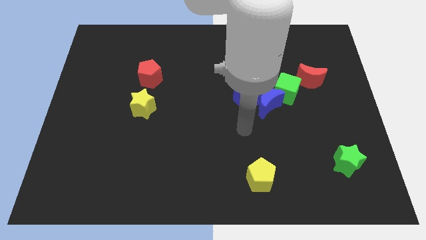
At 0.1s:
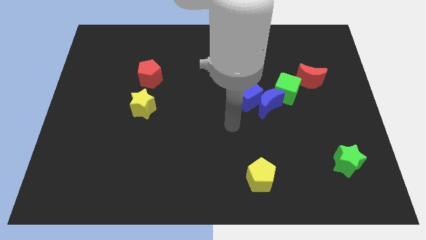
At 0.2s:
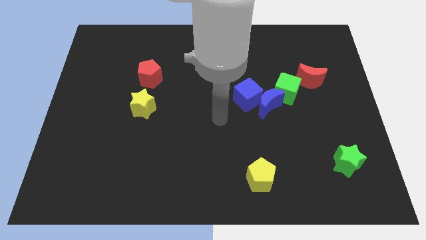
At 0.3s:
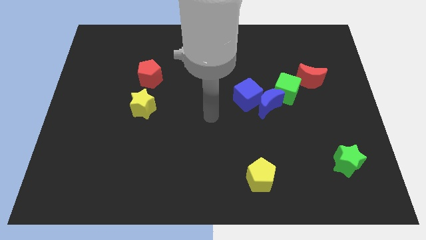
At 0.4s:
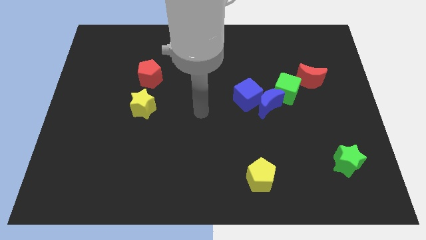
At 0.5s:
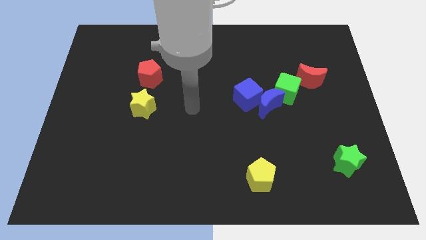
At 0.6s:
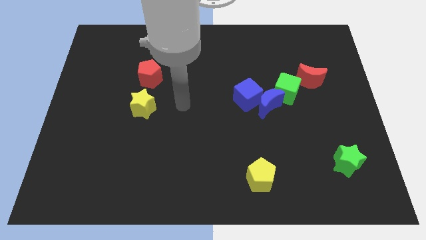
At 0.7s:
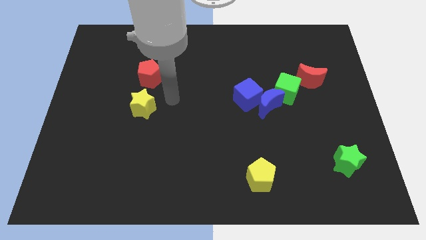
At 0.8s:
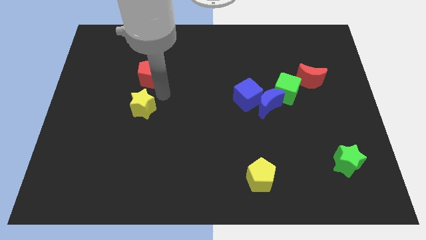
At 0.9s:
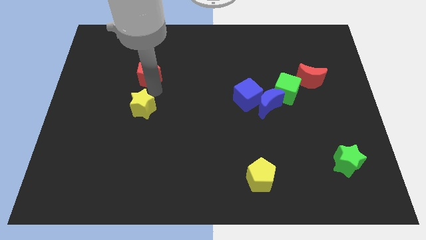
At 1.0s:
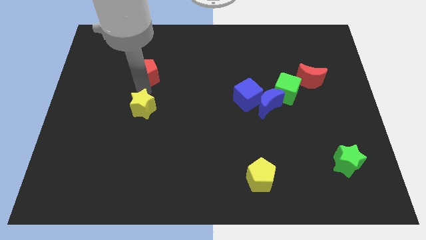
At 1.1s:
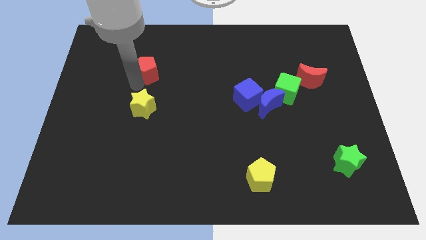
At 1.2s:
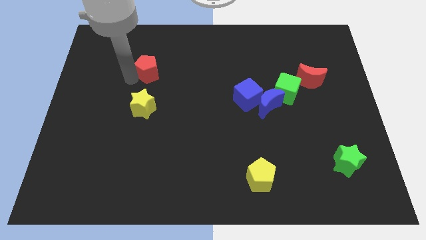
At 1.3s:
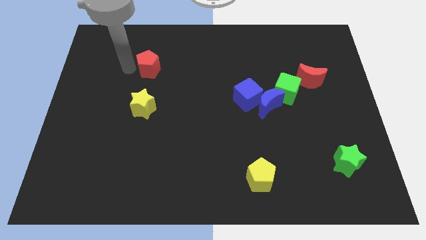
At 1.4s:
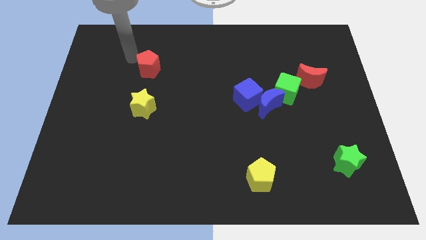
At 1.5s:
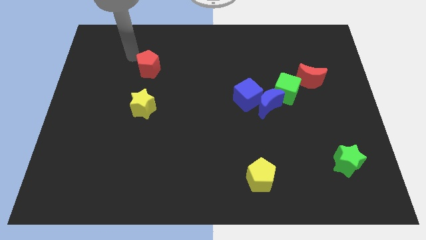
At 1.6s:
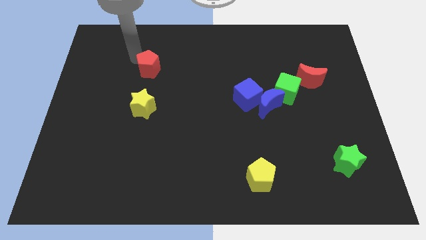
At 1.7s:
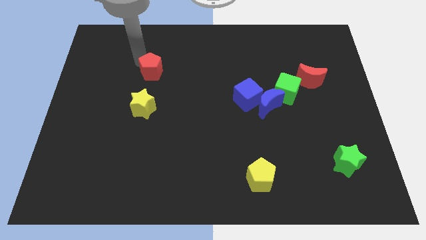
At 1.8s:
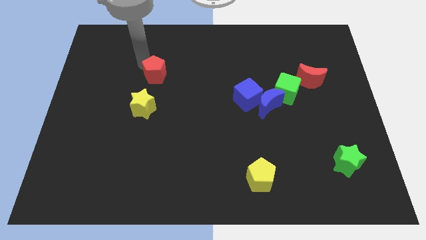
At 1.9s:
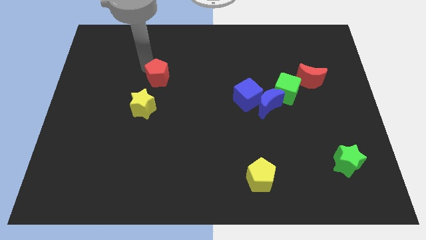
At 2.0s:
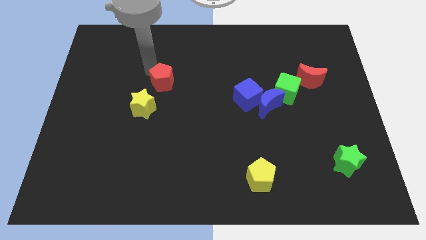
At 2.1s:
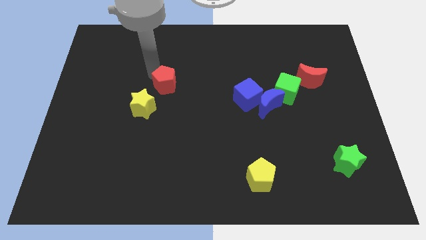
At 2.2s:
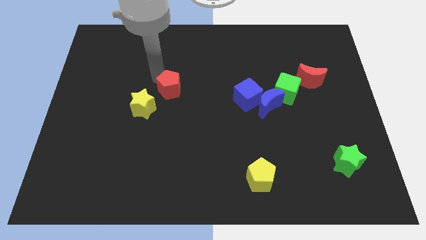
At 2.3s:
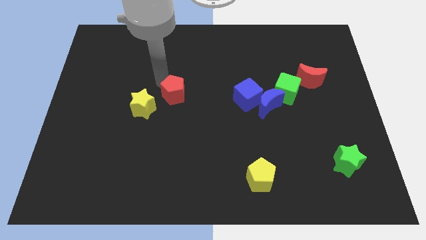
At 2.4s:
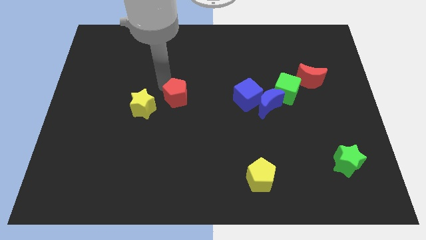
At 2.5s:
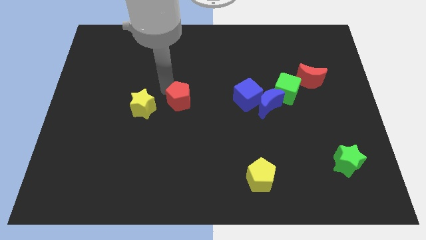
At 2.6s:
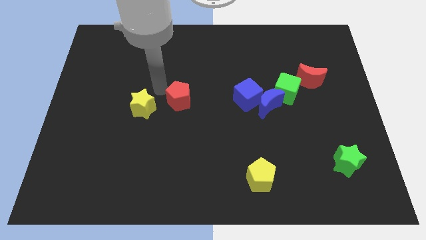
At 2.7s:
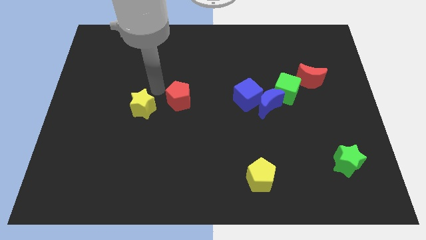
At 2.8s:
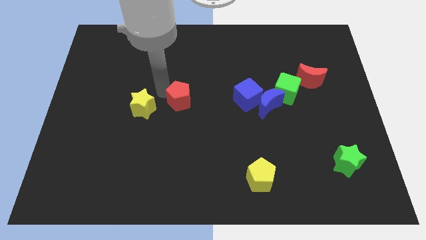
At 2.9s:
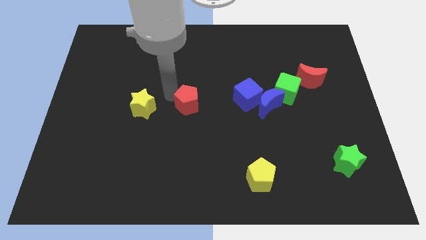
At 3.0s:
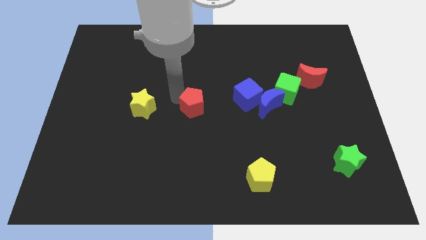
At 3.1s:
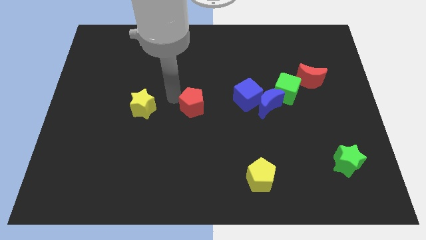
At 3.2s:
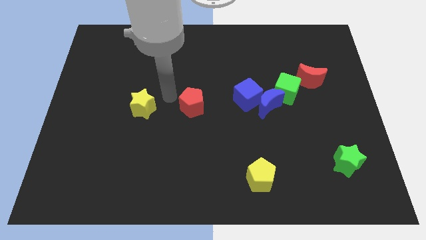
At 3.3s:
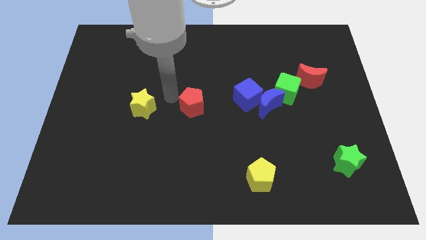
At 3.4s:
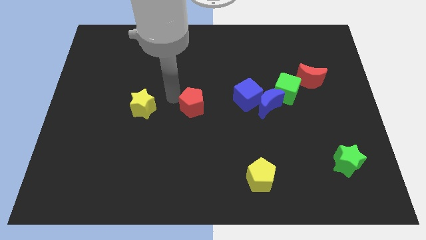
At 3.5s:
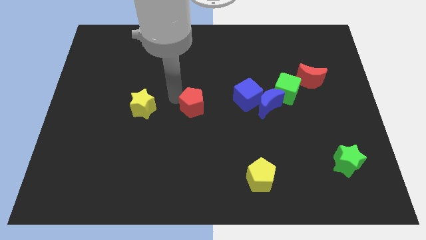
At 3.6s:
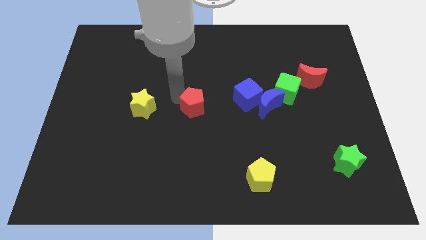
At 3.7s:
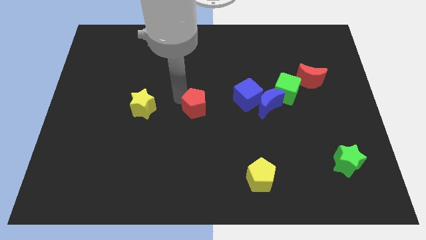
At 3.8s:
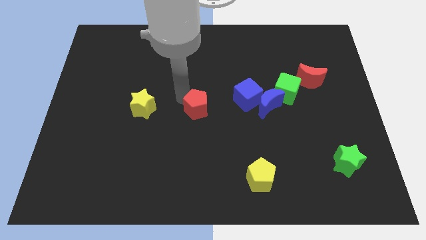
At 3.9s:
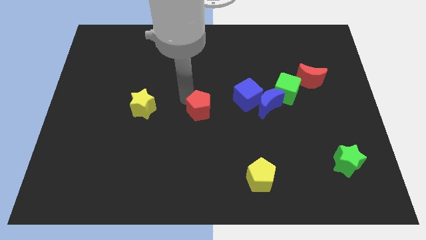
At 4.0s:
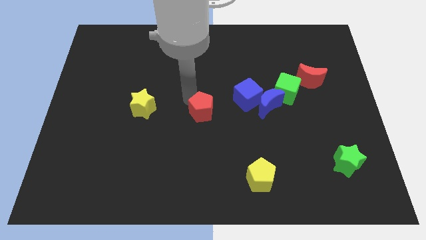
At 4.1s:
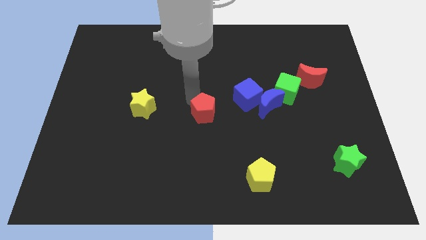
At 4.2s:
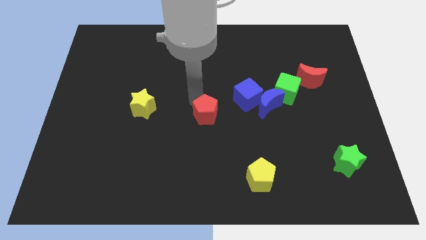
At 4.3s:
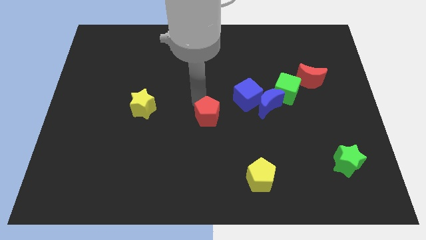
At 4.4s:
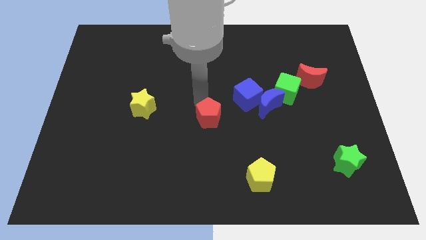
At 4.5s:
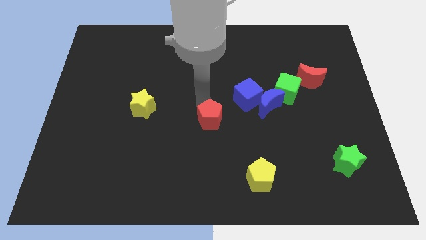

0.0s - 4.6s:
slide the red pentagon downwards and to the right diagonally

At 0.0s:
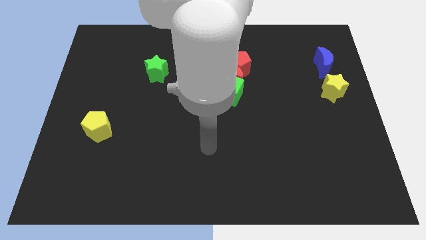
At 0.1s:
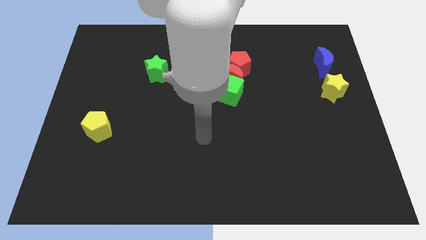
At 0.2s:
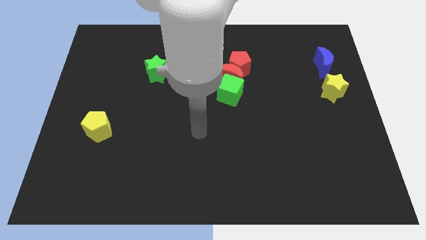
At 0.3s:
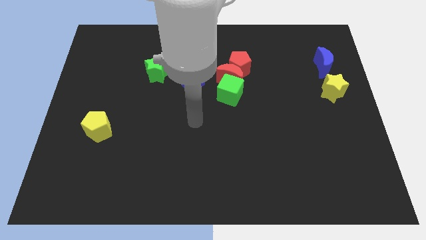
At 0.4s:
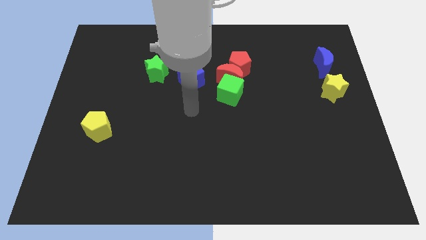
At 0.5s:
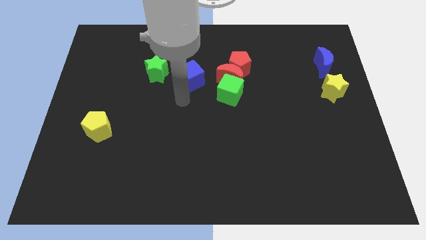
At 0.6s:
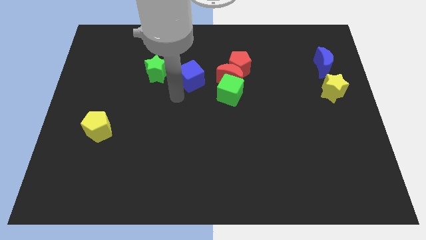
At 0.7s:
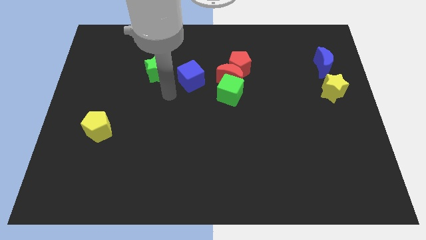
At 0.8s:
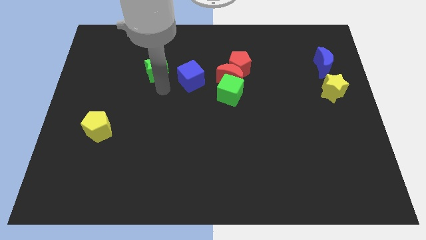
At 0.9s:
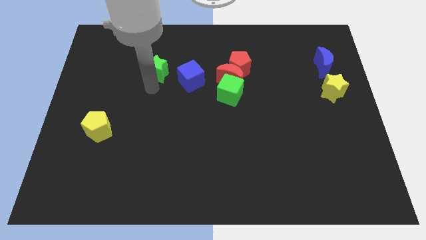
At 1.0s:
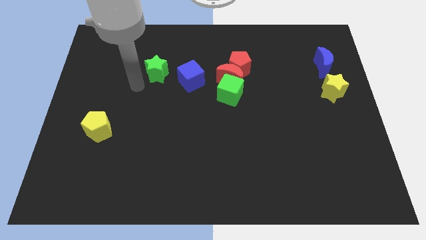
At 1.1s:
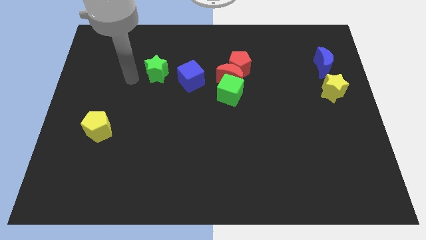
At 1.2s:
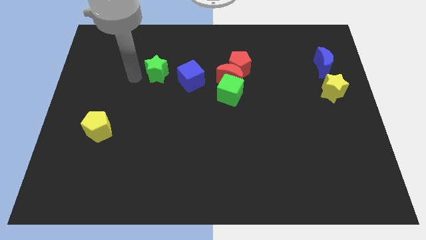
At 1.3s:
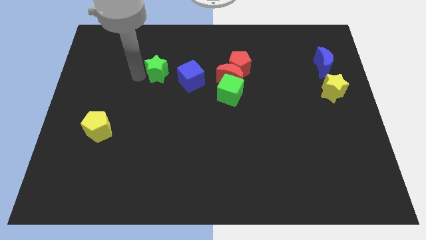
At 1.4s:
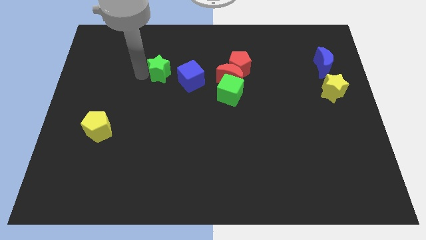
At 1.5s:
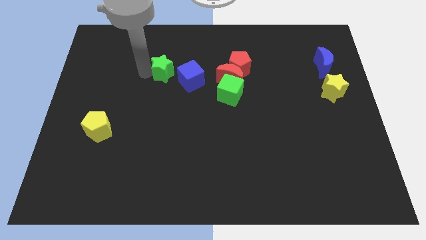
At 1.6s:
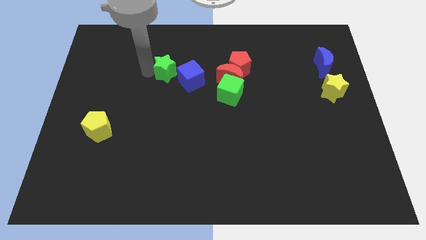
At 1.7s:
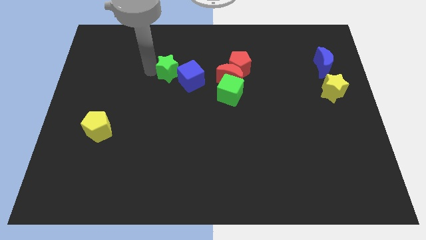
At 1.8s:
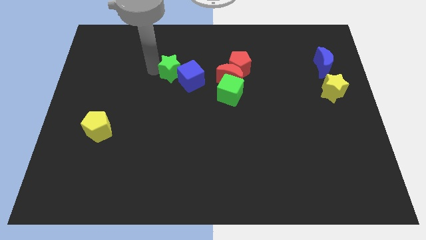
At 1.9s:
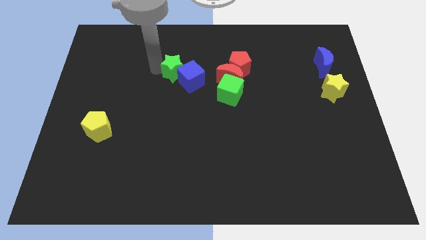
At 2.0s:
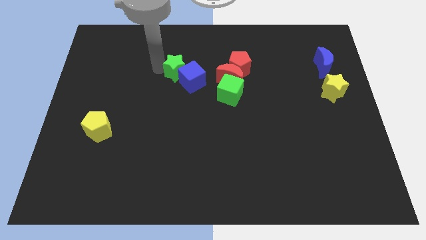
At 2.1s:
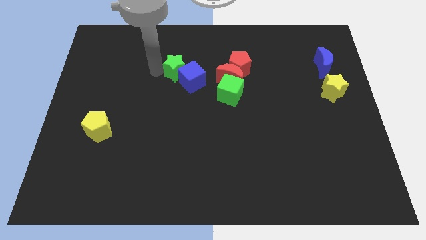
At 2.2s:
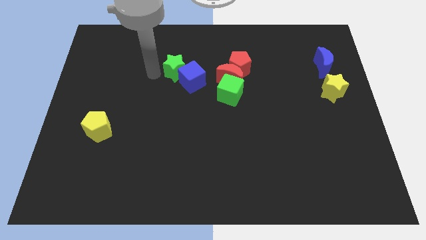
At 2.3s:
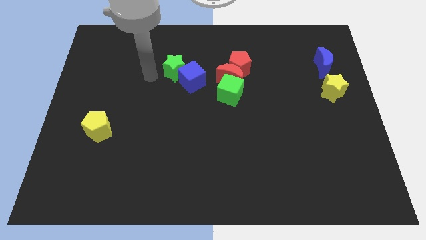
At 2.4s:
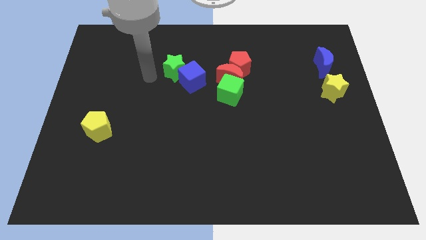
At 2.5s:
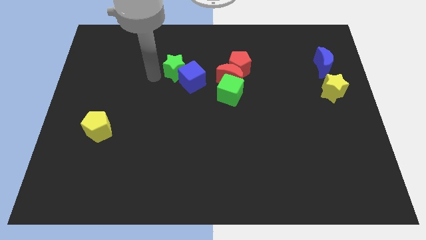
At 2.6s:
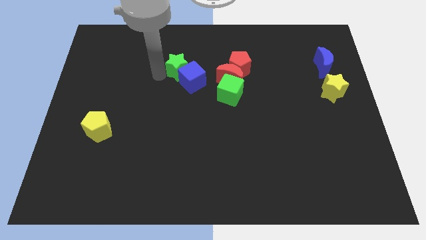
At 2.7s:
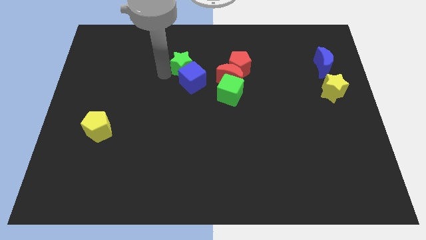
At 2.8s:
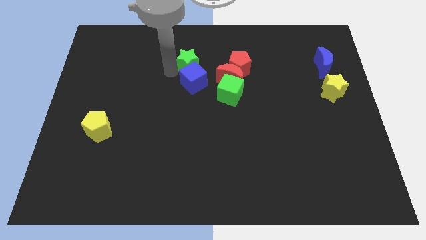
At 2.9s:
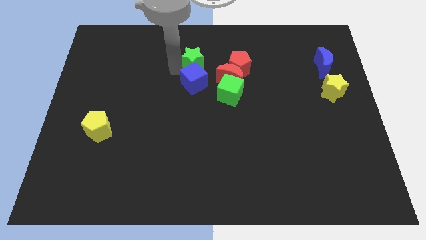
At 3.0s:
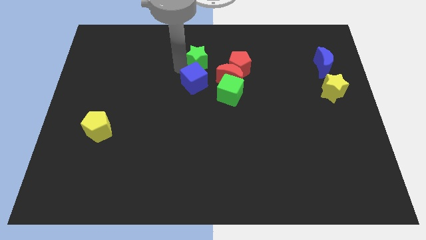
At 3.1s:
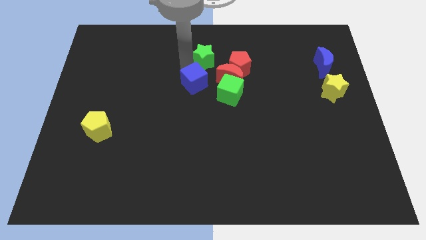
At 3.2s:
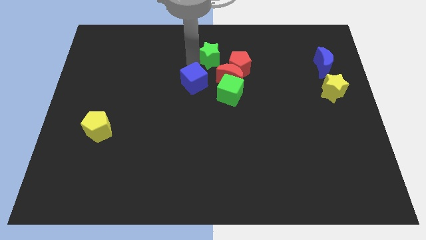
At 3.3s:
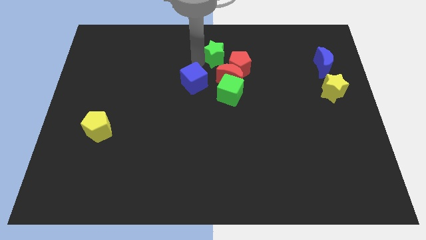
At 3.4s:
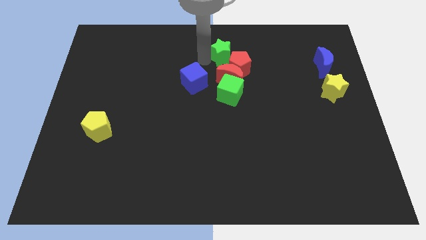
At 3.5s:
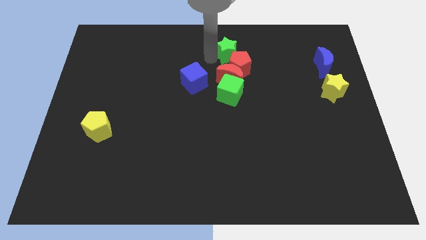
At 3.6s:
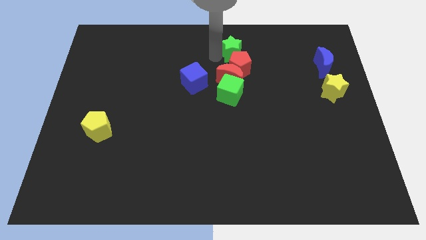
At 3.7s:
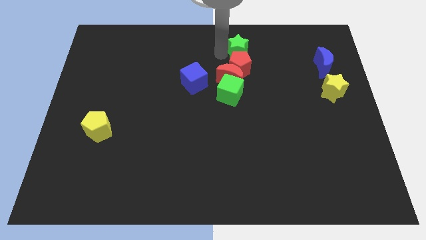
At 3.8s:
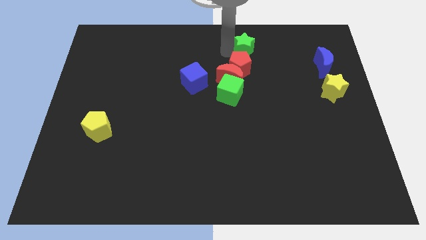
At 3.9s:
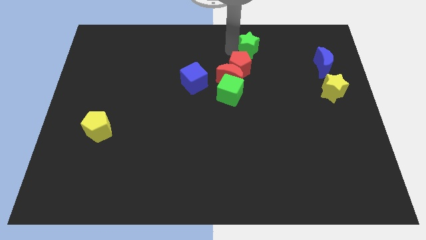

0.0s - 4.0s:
slide the green star right
